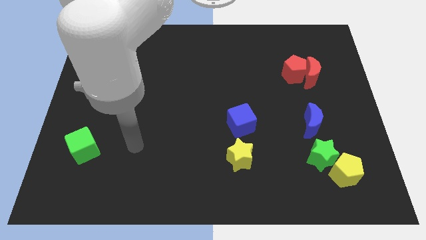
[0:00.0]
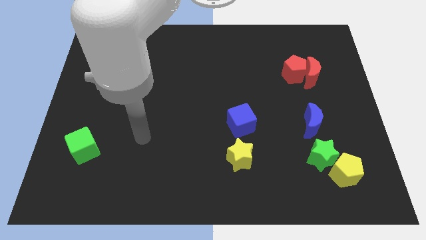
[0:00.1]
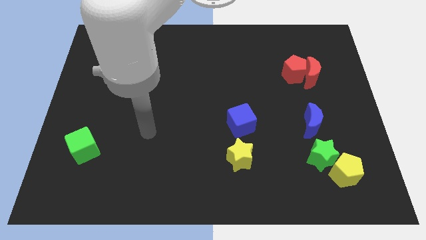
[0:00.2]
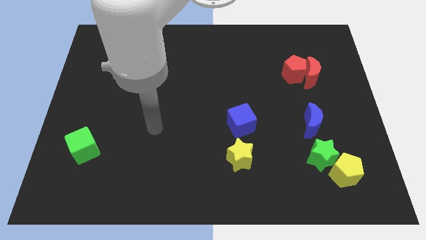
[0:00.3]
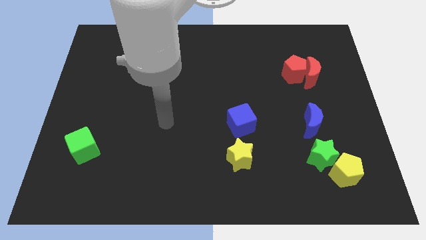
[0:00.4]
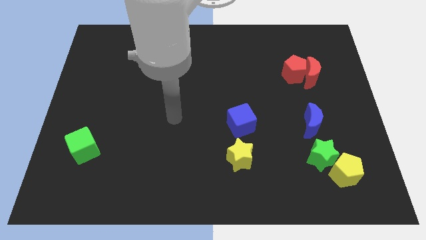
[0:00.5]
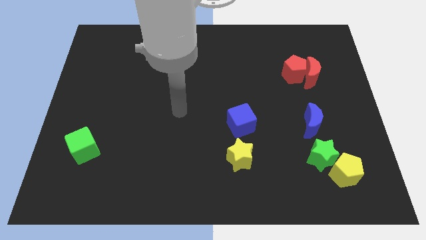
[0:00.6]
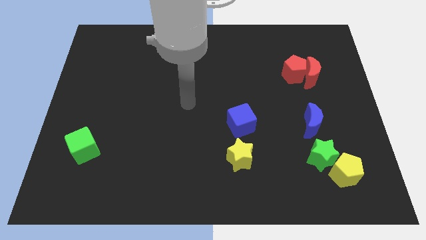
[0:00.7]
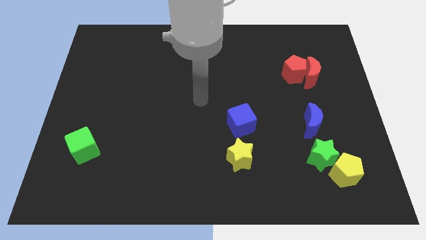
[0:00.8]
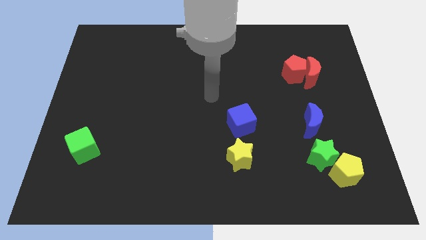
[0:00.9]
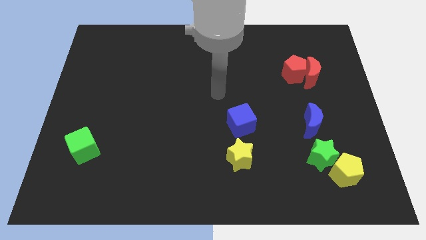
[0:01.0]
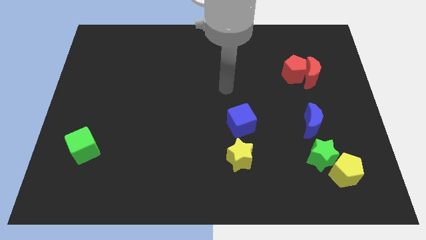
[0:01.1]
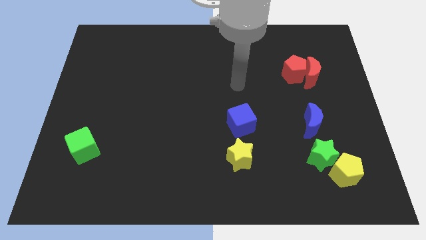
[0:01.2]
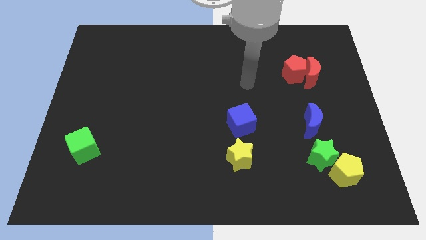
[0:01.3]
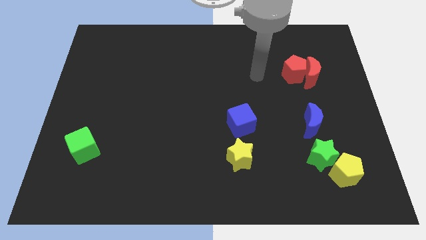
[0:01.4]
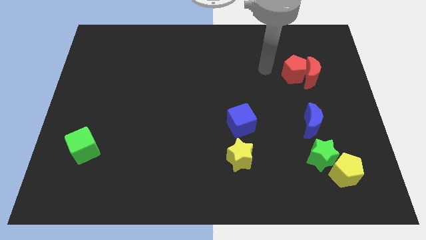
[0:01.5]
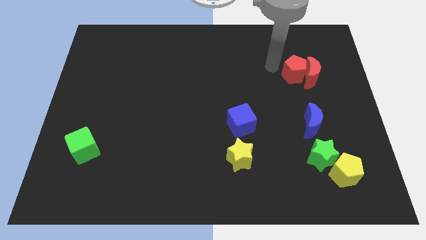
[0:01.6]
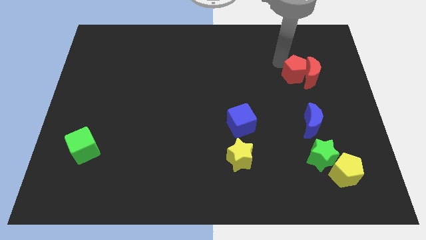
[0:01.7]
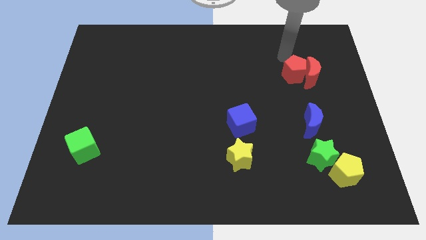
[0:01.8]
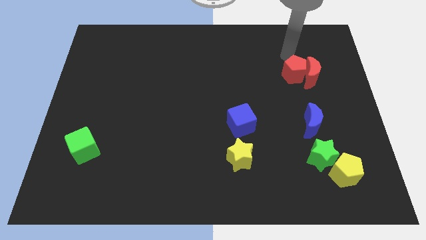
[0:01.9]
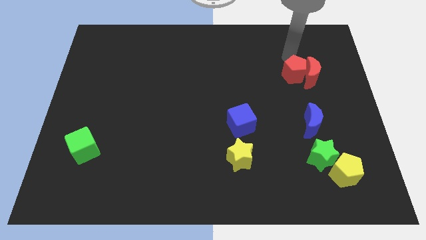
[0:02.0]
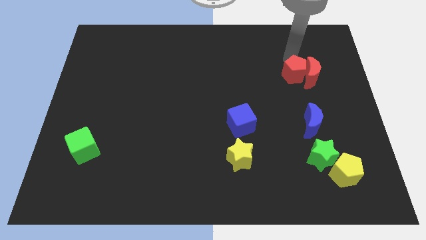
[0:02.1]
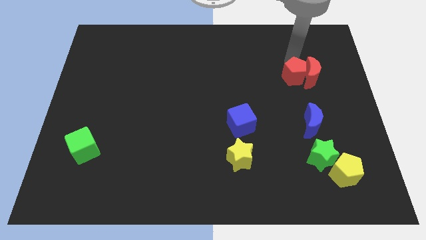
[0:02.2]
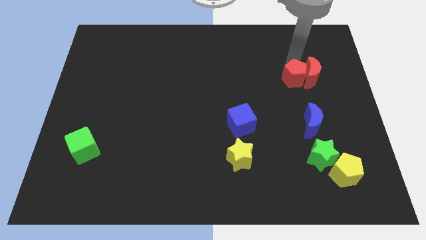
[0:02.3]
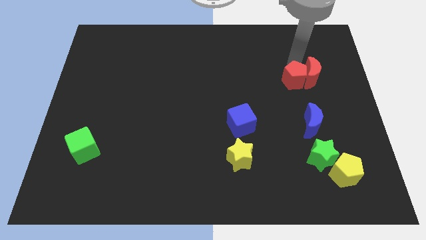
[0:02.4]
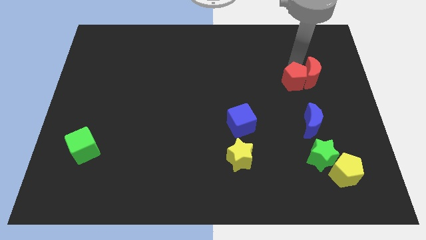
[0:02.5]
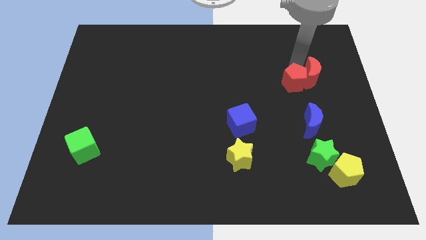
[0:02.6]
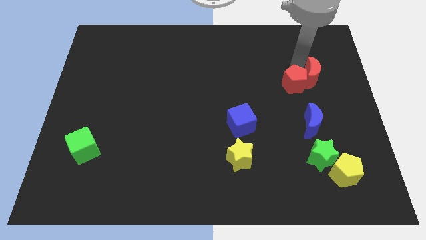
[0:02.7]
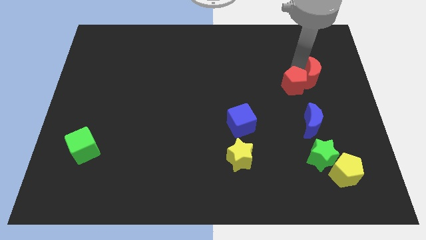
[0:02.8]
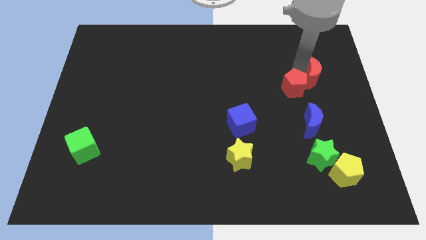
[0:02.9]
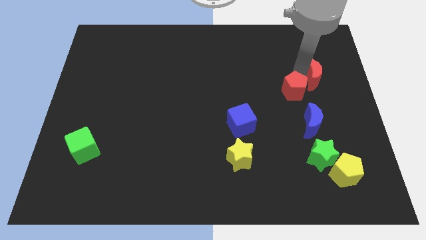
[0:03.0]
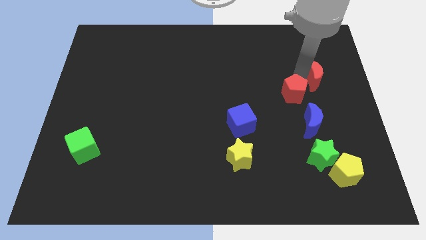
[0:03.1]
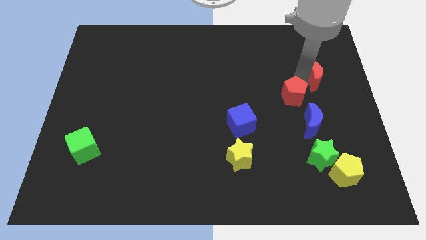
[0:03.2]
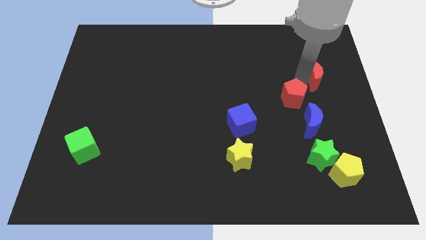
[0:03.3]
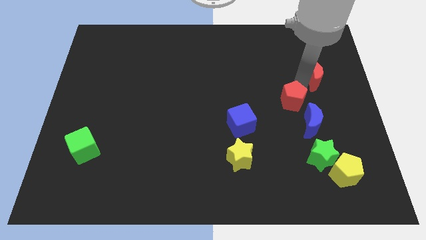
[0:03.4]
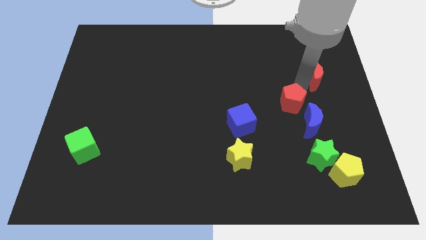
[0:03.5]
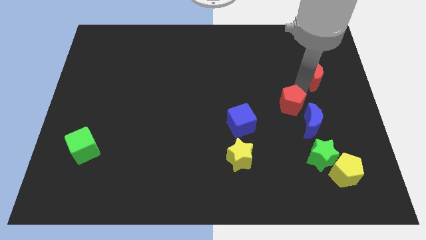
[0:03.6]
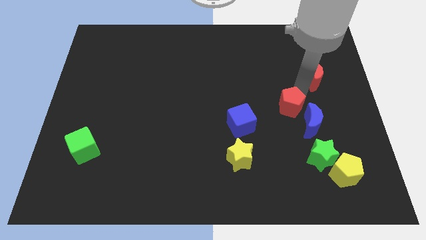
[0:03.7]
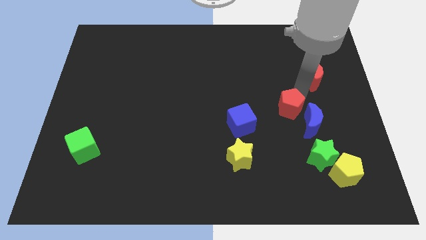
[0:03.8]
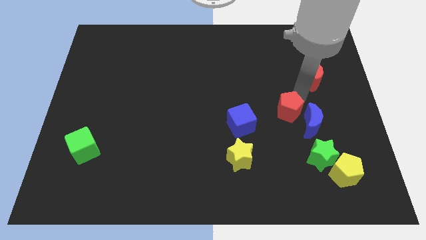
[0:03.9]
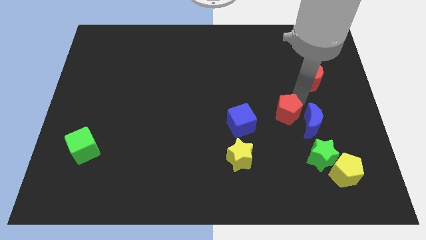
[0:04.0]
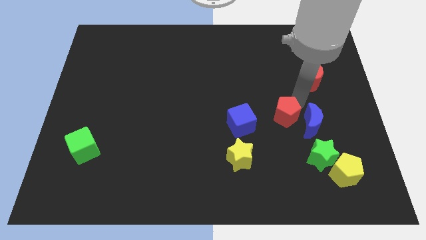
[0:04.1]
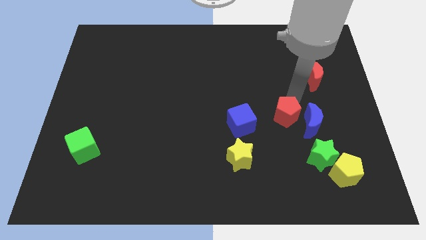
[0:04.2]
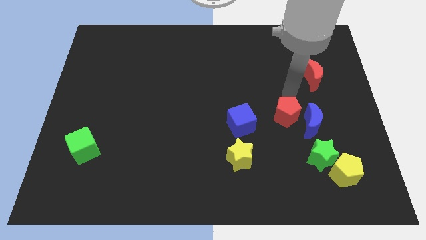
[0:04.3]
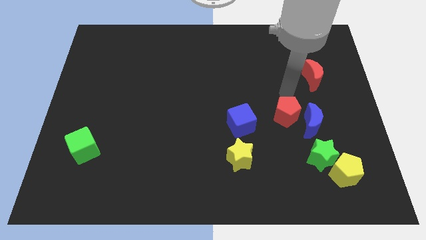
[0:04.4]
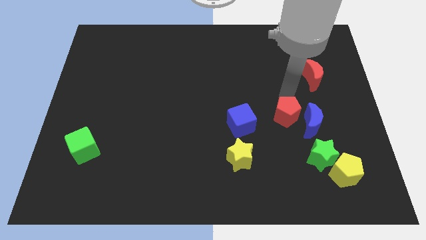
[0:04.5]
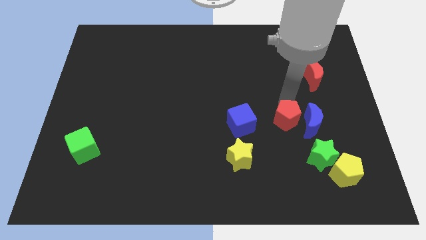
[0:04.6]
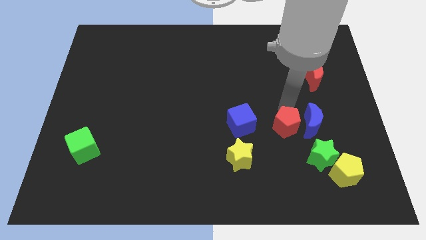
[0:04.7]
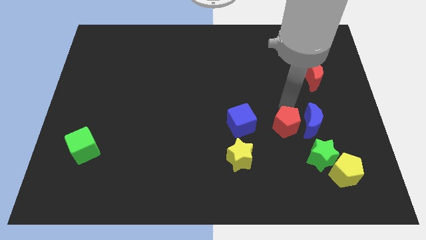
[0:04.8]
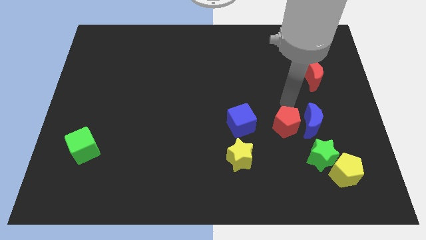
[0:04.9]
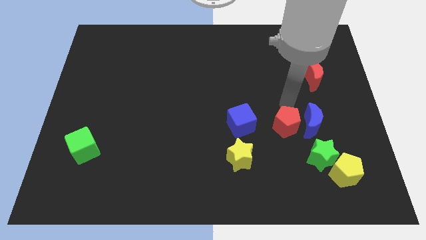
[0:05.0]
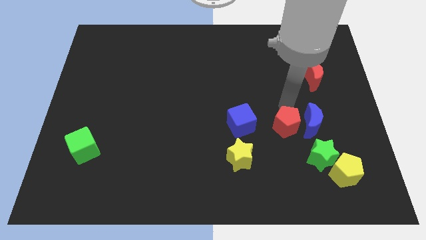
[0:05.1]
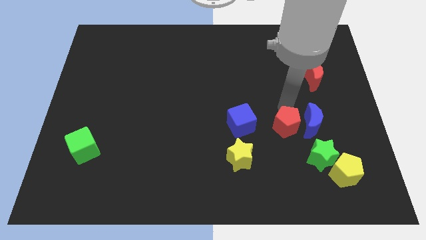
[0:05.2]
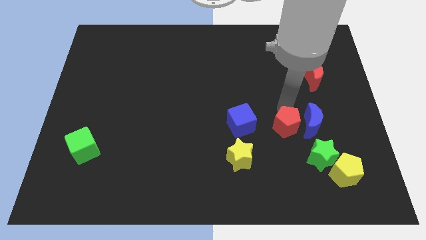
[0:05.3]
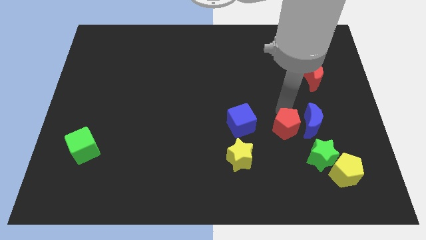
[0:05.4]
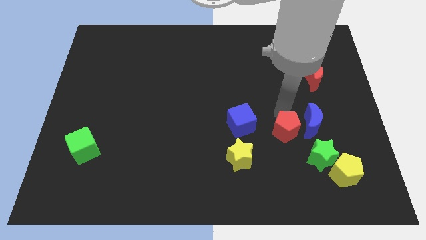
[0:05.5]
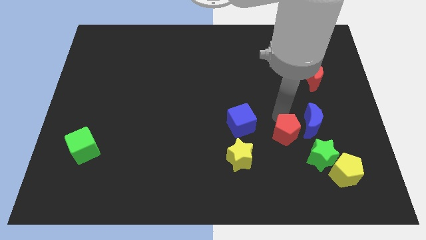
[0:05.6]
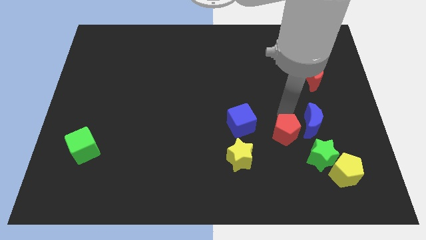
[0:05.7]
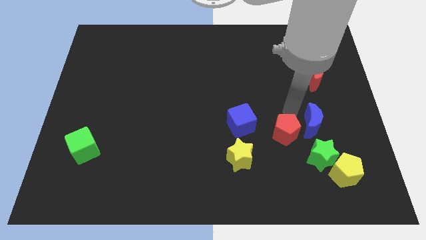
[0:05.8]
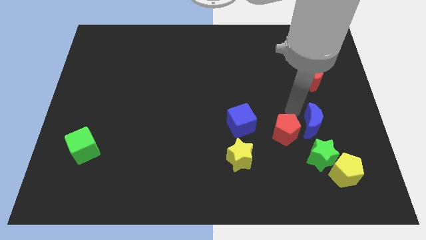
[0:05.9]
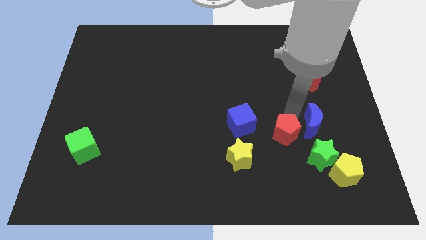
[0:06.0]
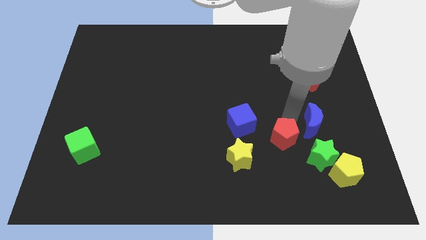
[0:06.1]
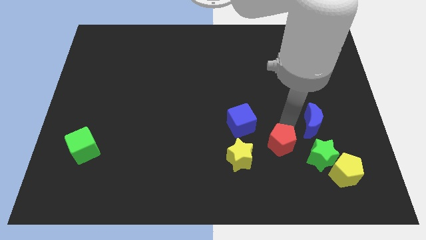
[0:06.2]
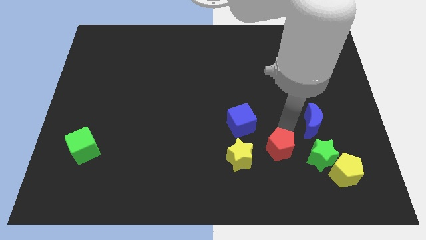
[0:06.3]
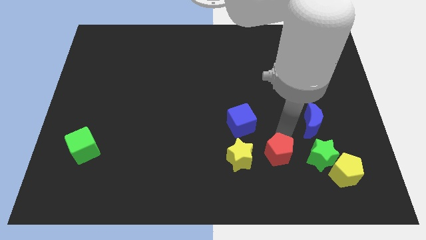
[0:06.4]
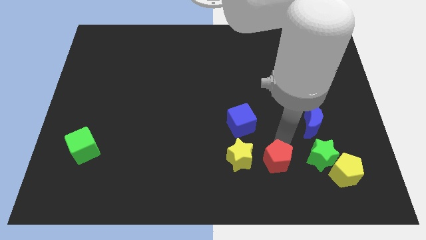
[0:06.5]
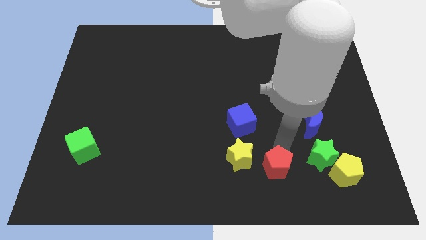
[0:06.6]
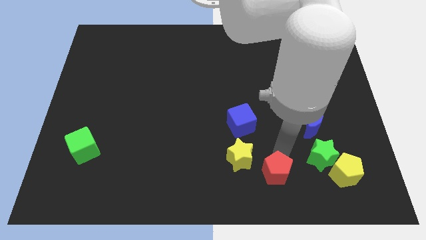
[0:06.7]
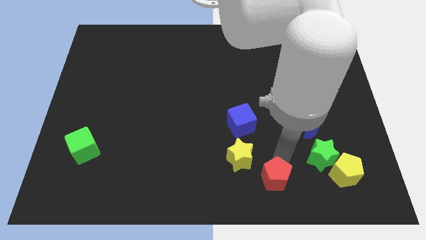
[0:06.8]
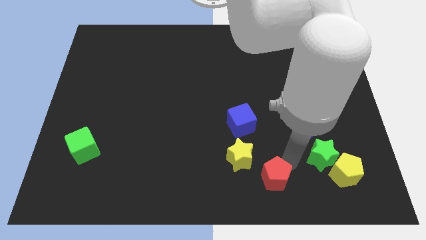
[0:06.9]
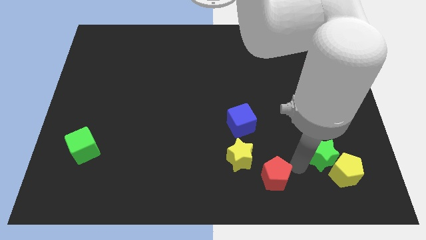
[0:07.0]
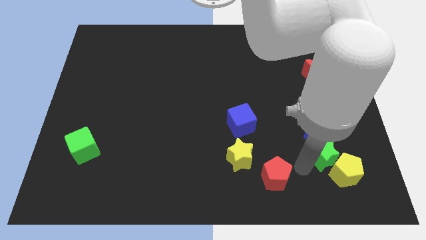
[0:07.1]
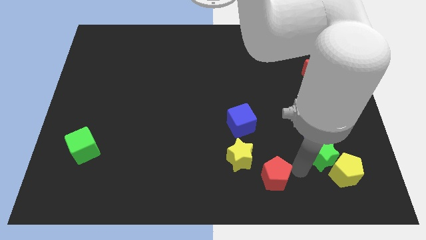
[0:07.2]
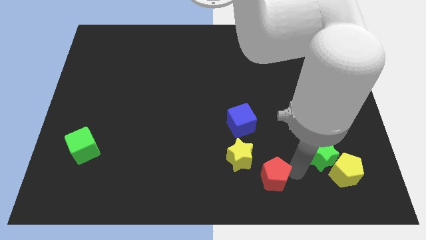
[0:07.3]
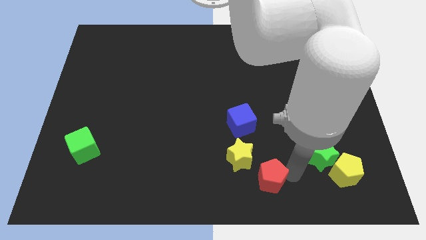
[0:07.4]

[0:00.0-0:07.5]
move the red pentagon to the bottom
